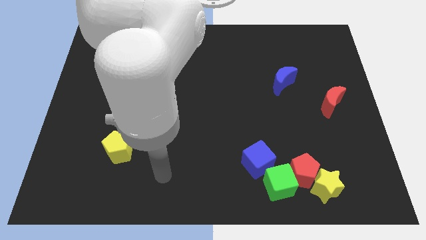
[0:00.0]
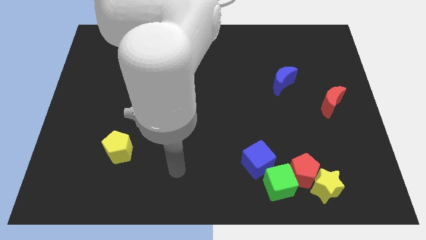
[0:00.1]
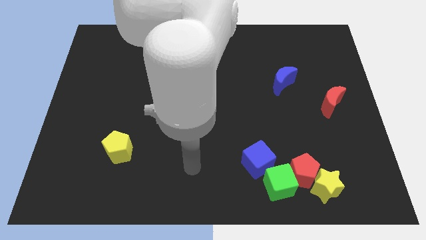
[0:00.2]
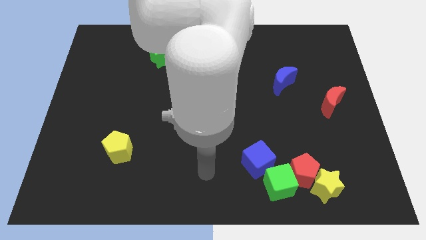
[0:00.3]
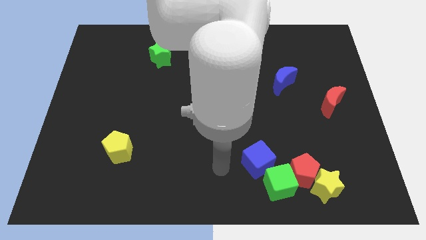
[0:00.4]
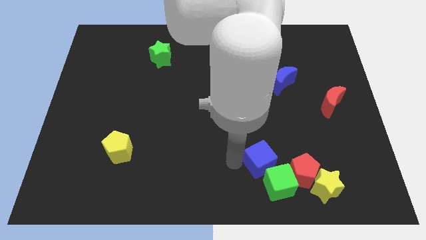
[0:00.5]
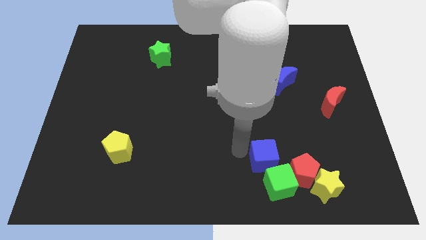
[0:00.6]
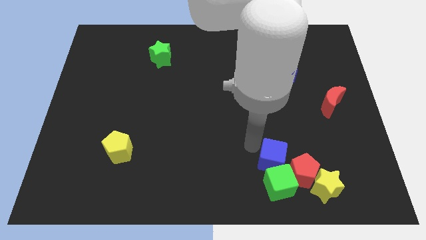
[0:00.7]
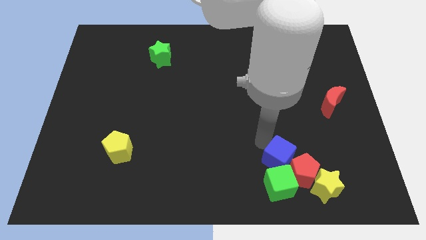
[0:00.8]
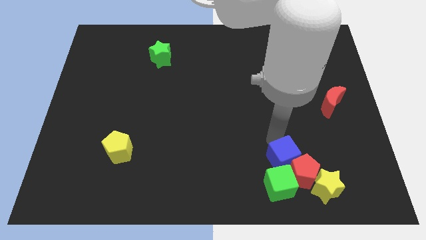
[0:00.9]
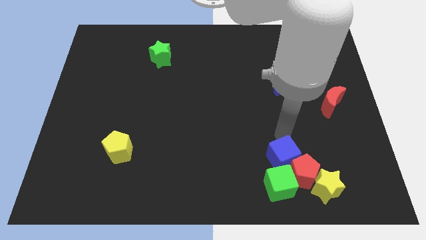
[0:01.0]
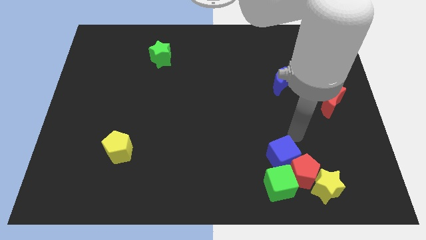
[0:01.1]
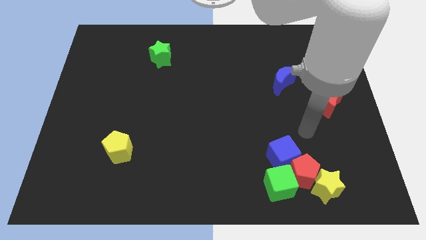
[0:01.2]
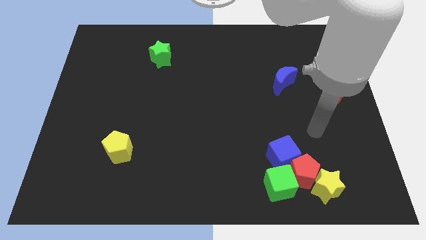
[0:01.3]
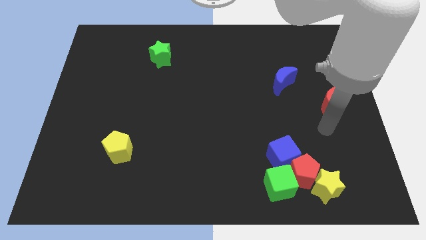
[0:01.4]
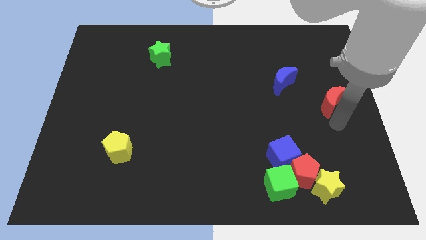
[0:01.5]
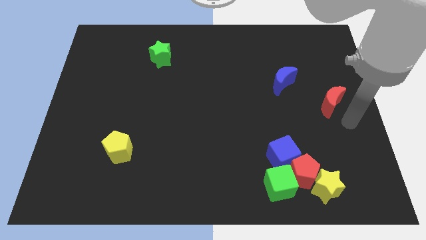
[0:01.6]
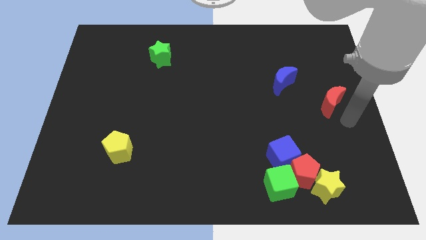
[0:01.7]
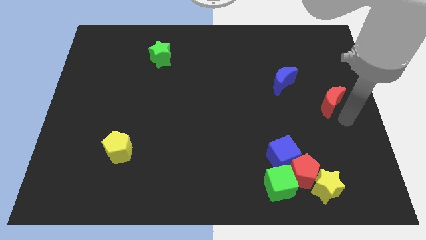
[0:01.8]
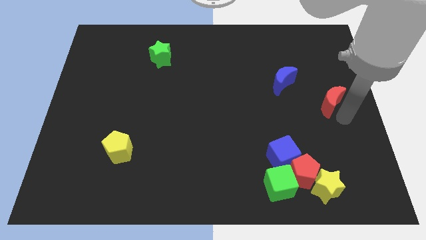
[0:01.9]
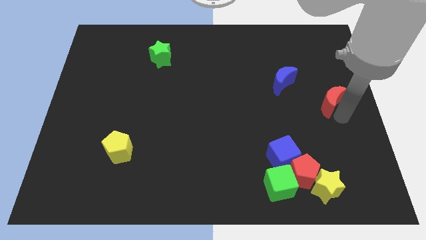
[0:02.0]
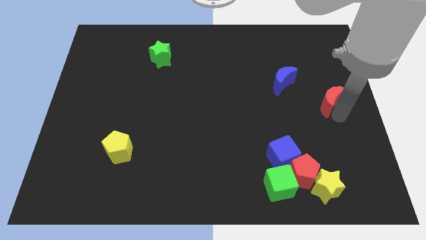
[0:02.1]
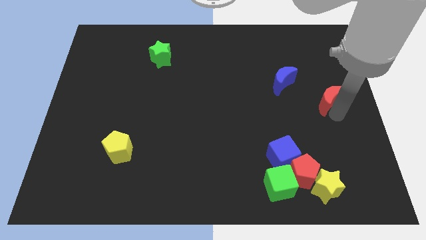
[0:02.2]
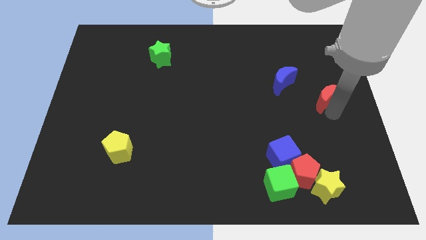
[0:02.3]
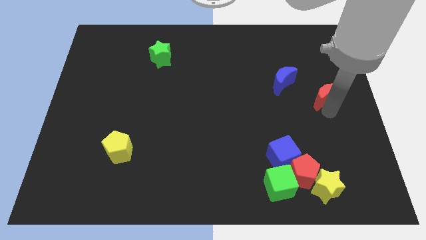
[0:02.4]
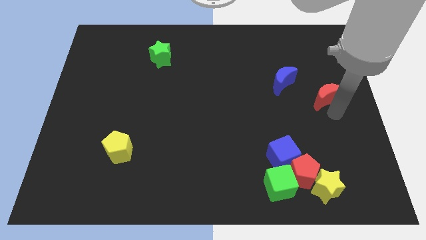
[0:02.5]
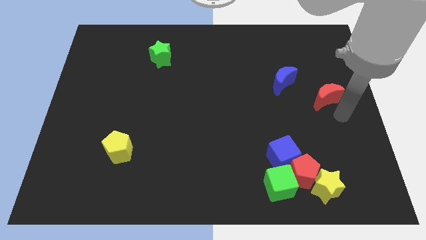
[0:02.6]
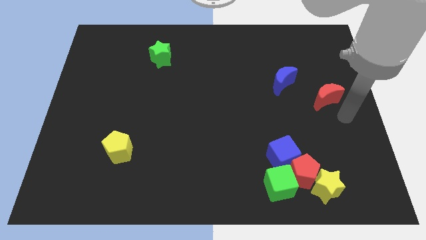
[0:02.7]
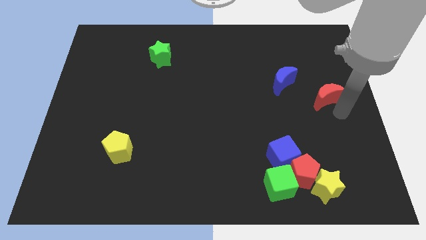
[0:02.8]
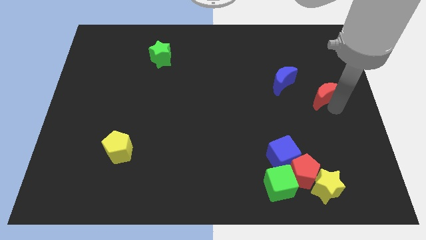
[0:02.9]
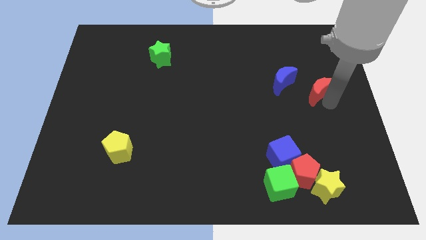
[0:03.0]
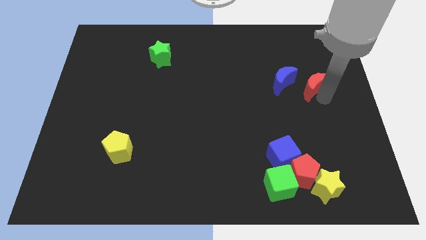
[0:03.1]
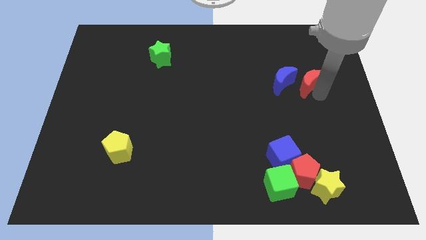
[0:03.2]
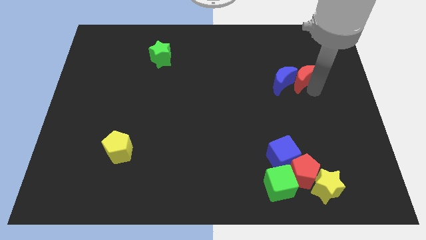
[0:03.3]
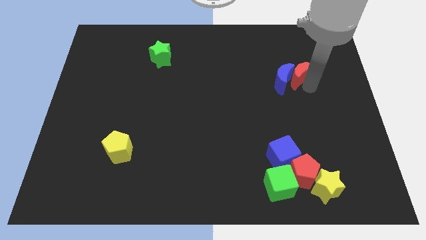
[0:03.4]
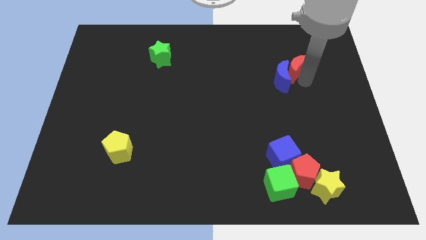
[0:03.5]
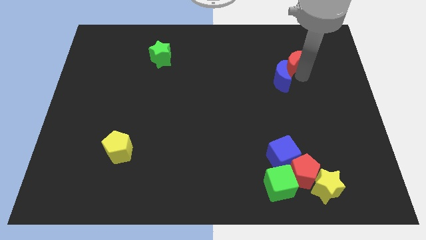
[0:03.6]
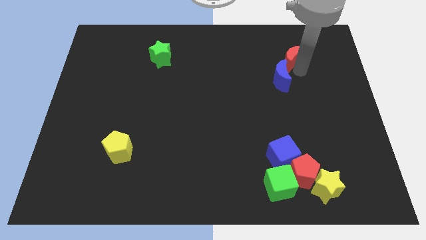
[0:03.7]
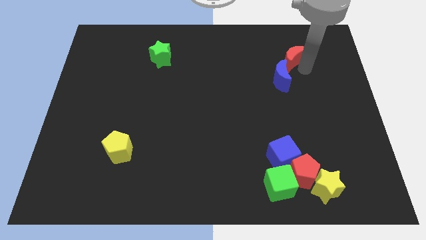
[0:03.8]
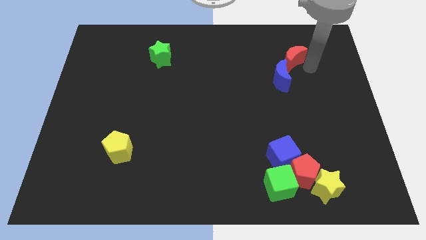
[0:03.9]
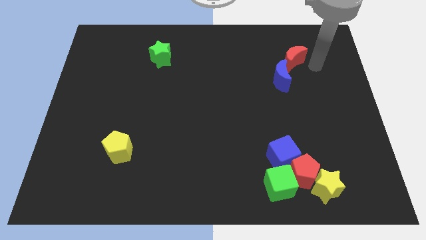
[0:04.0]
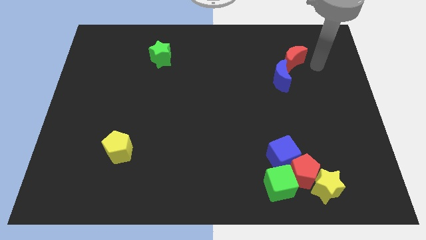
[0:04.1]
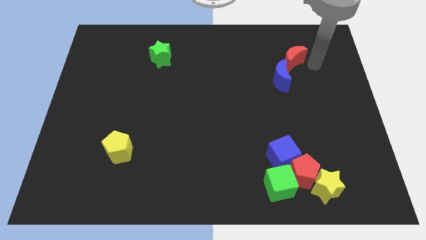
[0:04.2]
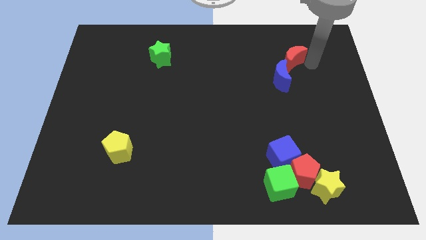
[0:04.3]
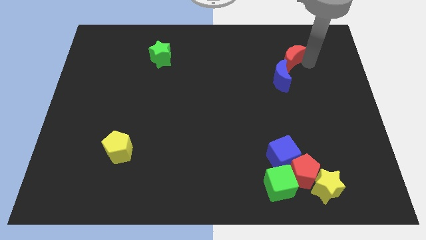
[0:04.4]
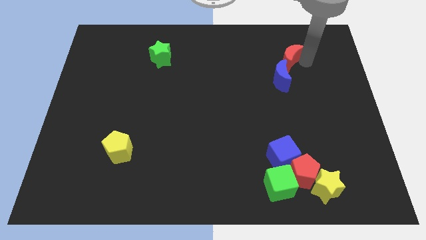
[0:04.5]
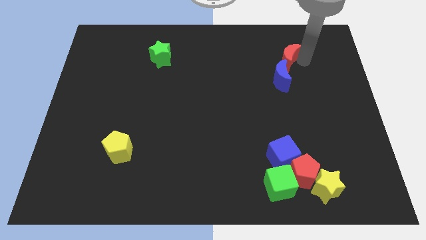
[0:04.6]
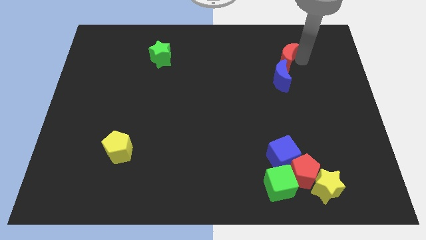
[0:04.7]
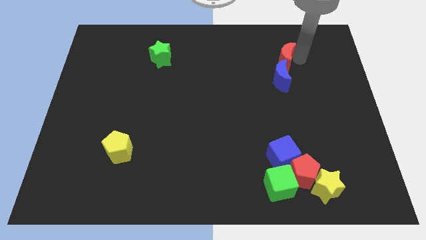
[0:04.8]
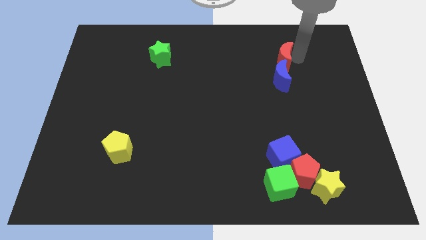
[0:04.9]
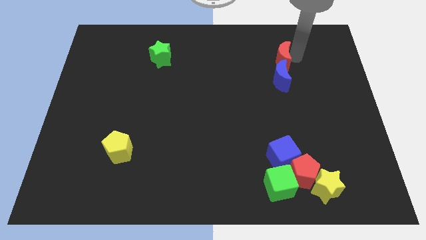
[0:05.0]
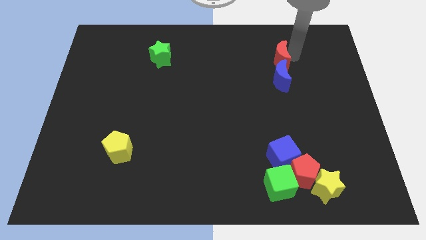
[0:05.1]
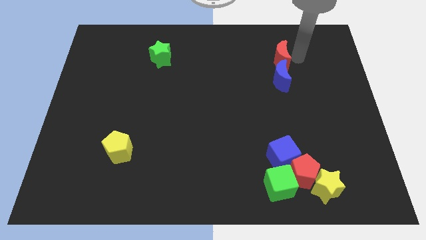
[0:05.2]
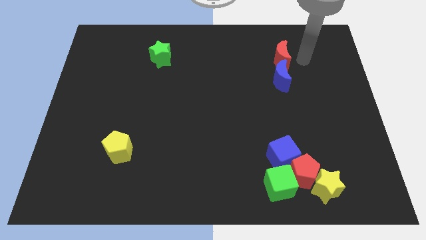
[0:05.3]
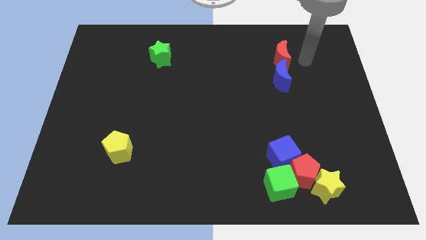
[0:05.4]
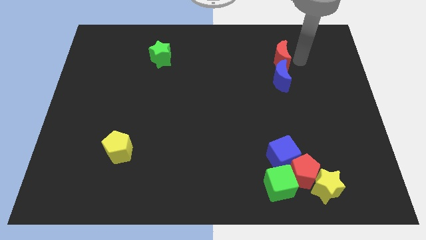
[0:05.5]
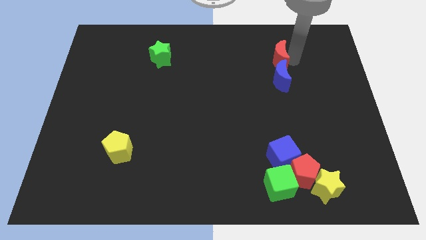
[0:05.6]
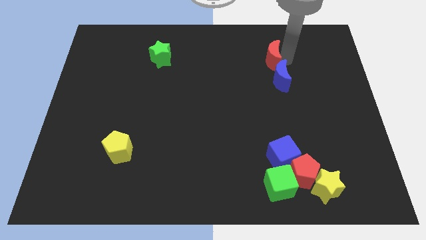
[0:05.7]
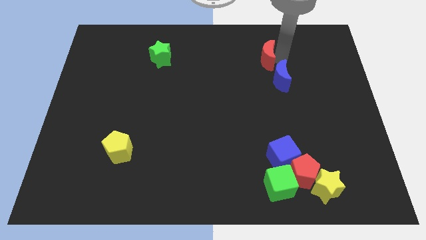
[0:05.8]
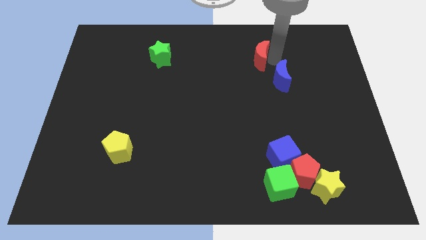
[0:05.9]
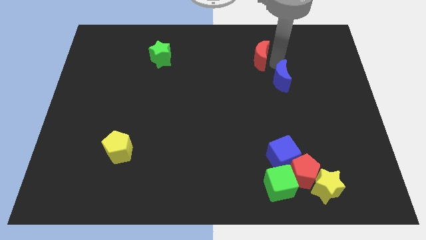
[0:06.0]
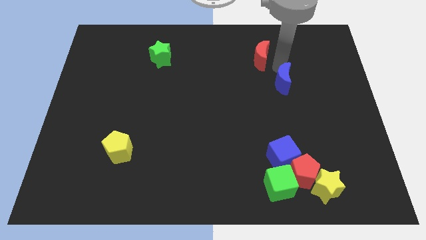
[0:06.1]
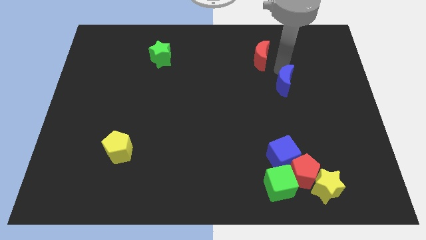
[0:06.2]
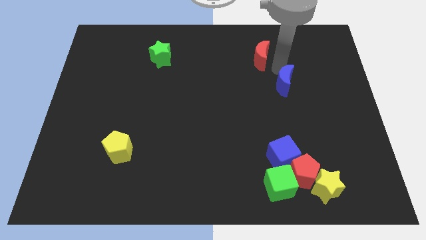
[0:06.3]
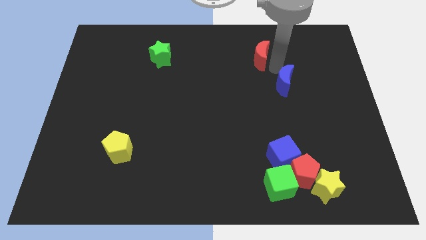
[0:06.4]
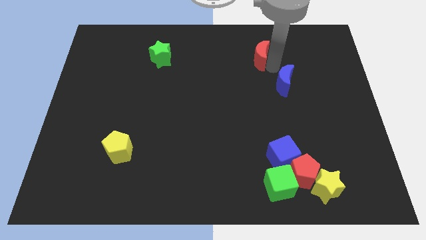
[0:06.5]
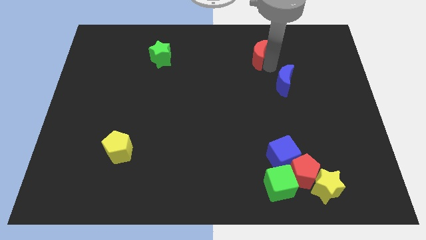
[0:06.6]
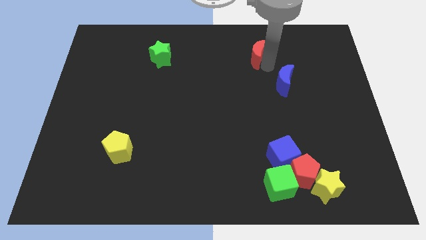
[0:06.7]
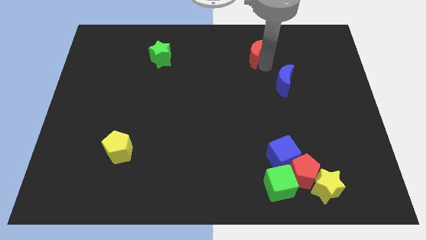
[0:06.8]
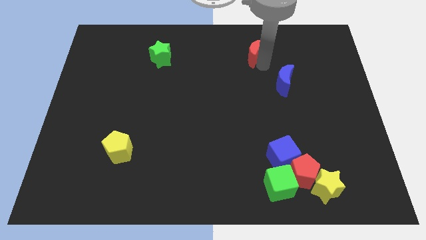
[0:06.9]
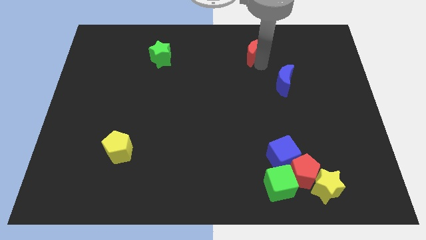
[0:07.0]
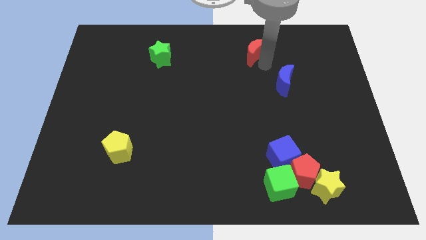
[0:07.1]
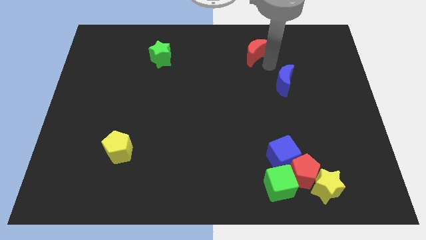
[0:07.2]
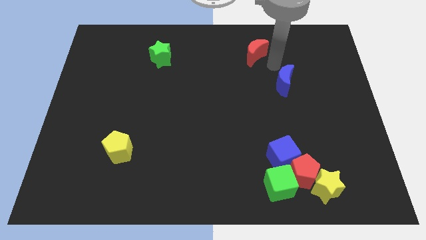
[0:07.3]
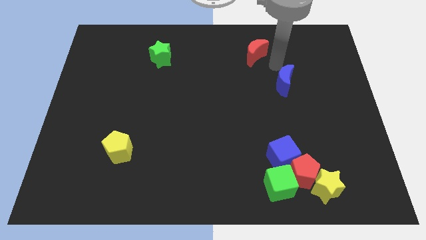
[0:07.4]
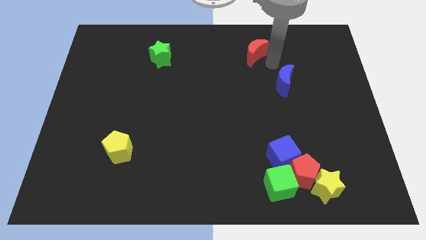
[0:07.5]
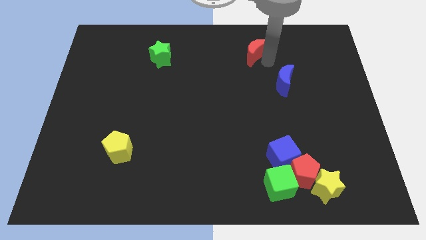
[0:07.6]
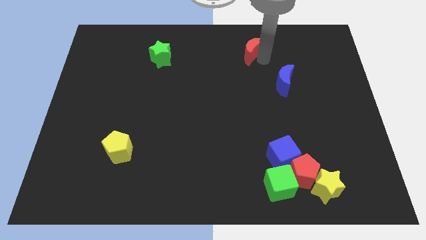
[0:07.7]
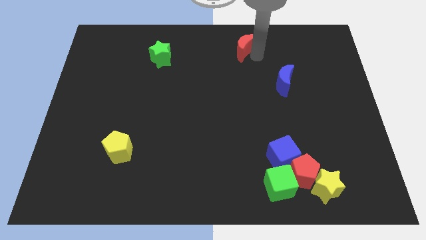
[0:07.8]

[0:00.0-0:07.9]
put the red moon to the towards your base
